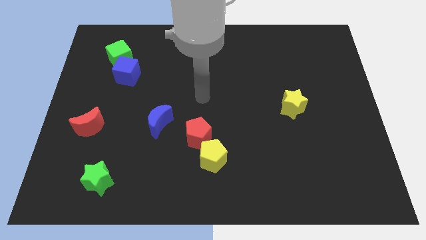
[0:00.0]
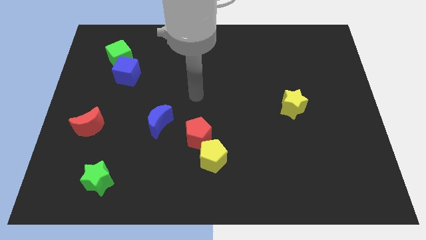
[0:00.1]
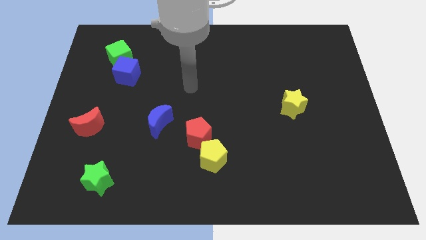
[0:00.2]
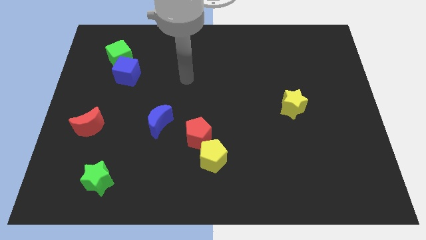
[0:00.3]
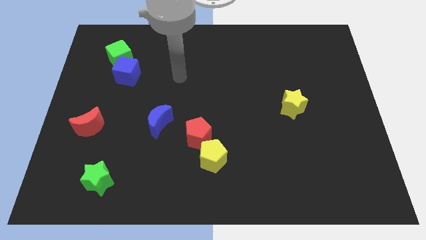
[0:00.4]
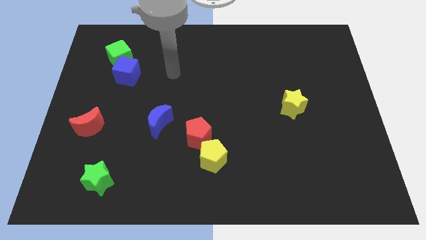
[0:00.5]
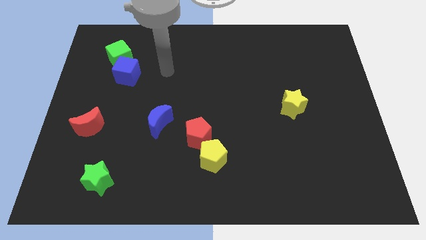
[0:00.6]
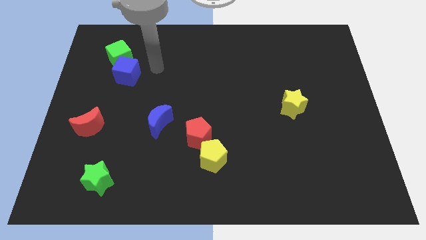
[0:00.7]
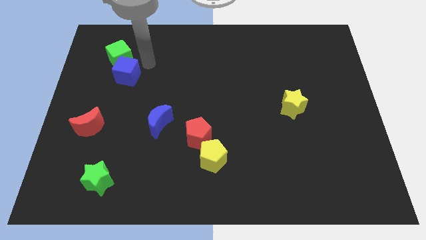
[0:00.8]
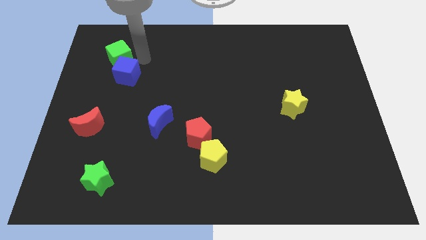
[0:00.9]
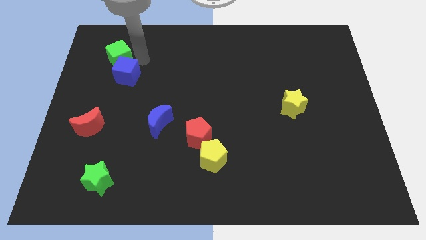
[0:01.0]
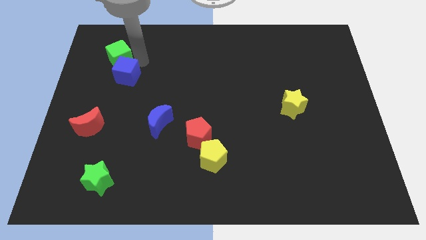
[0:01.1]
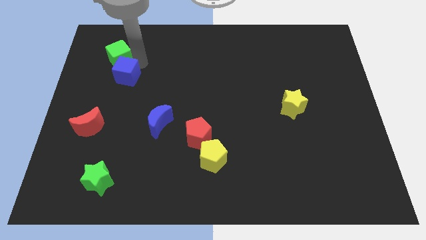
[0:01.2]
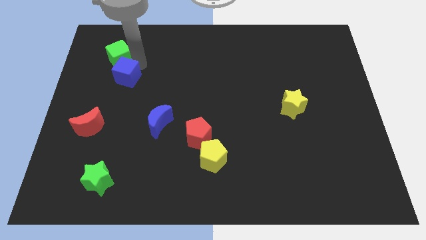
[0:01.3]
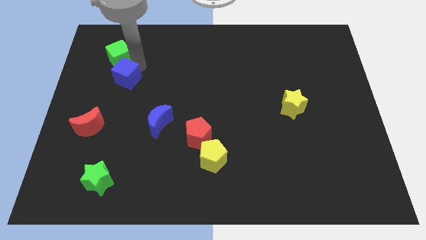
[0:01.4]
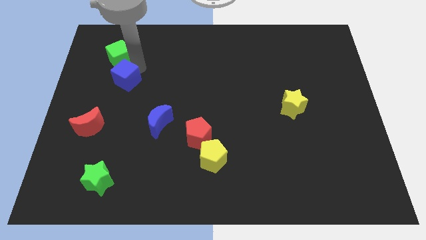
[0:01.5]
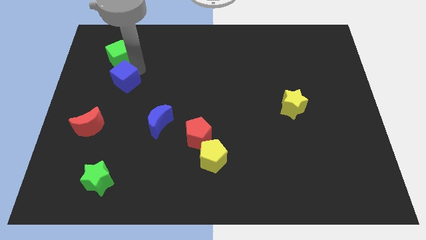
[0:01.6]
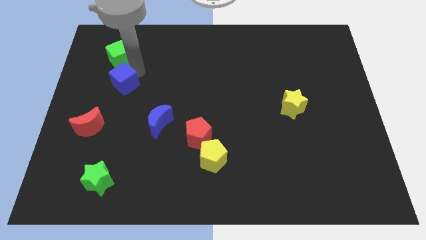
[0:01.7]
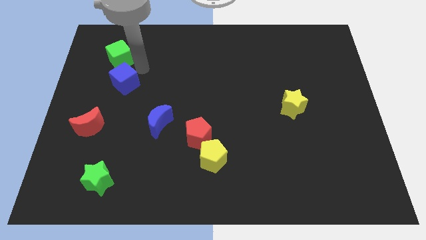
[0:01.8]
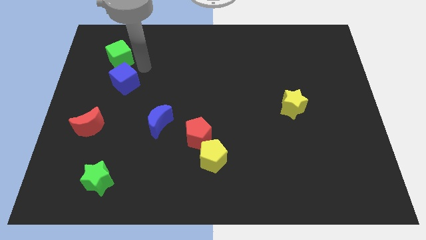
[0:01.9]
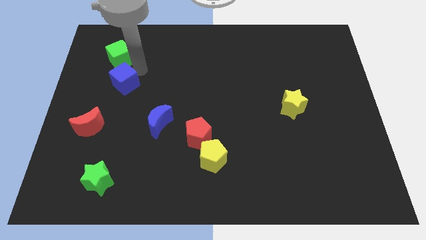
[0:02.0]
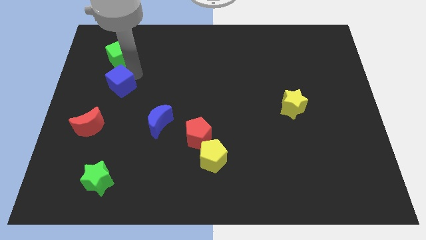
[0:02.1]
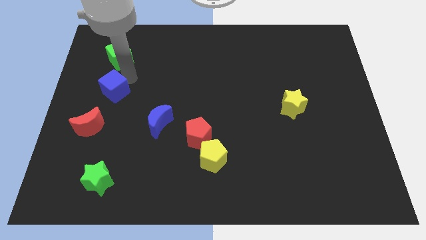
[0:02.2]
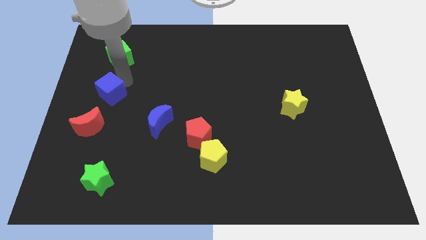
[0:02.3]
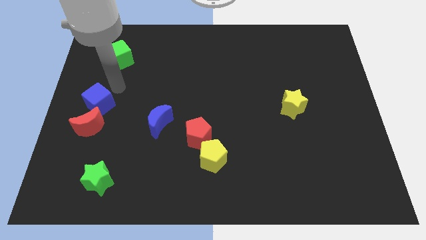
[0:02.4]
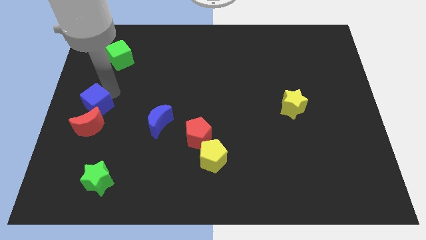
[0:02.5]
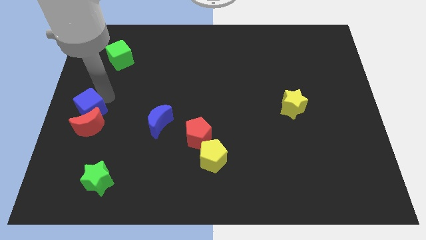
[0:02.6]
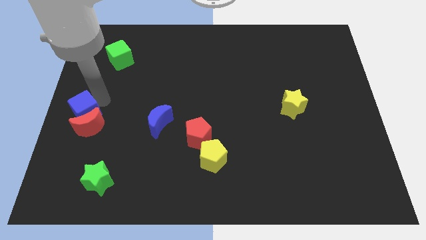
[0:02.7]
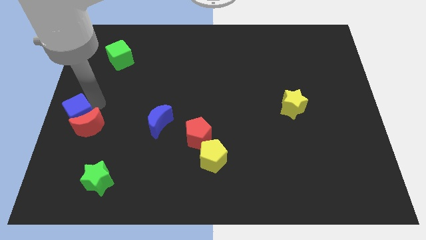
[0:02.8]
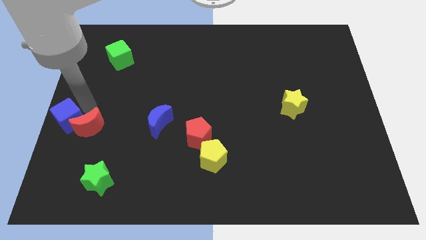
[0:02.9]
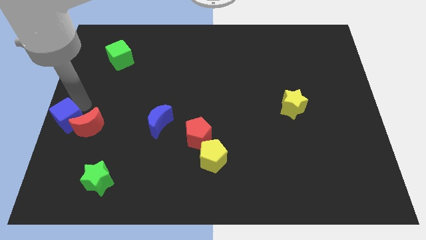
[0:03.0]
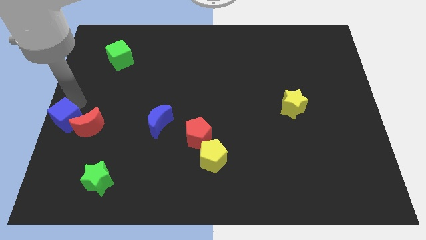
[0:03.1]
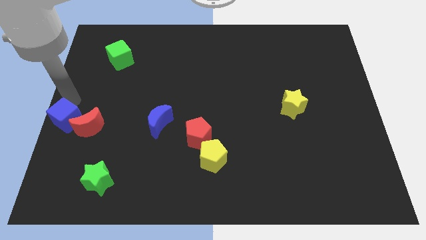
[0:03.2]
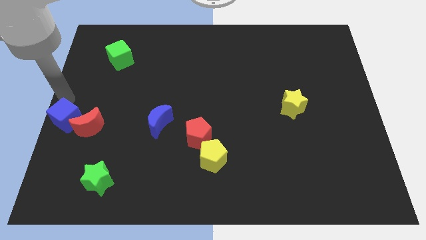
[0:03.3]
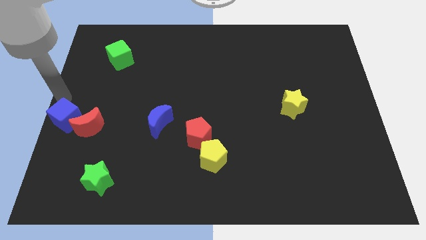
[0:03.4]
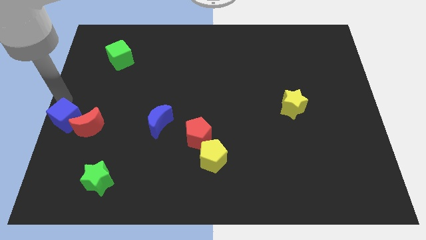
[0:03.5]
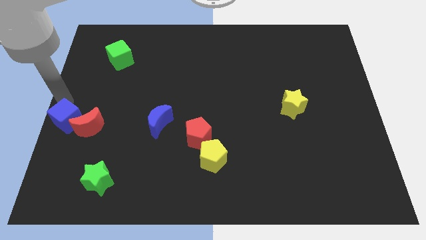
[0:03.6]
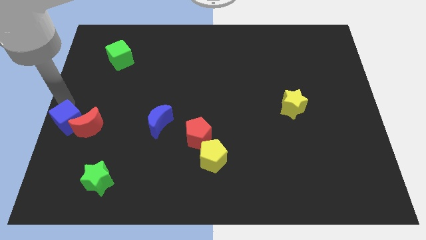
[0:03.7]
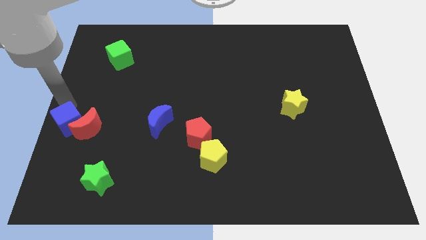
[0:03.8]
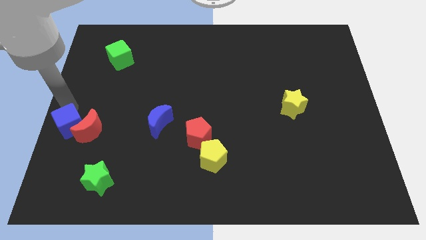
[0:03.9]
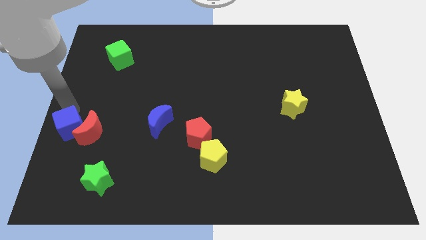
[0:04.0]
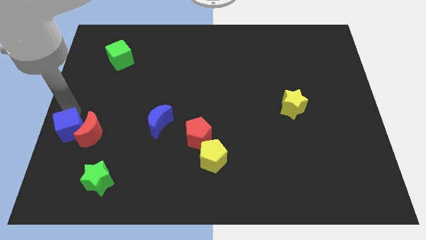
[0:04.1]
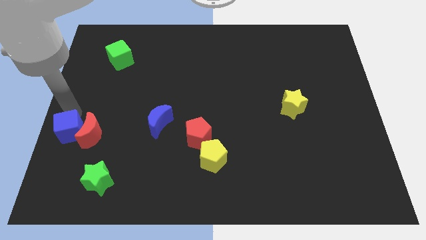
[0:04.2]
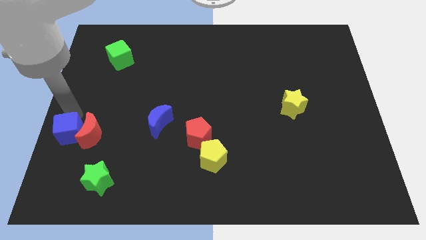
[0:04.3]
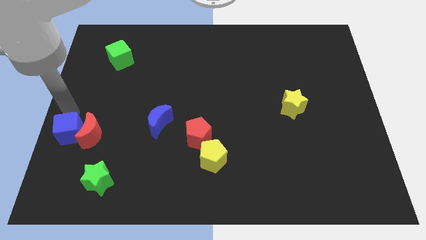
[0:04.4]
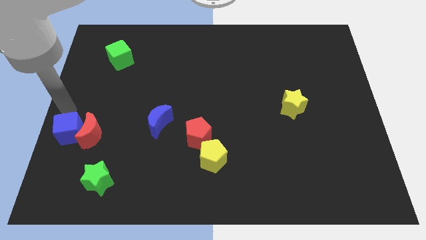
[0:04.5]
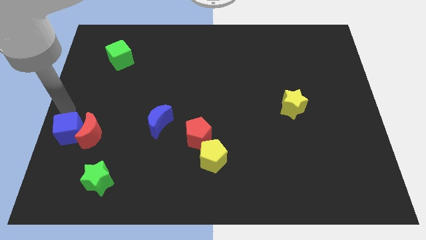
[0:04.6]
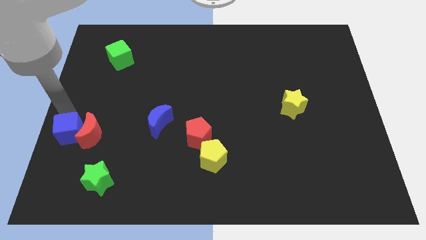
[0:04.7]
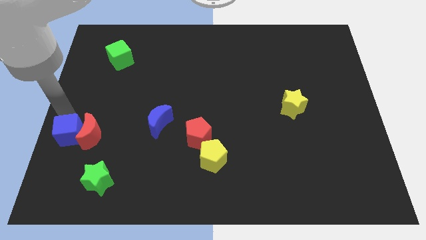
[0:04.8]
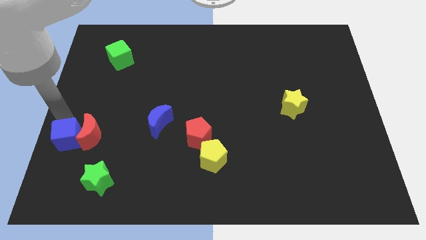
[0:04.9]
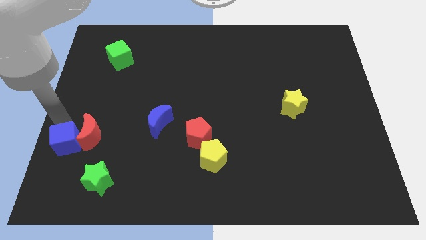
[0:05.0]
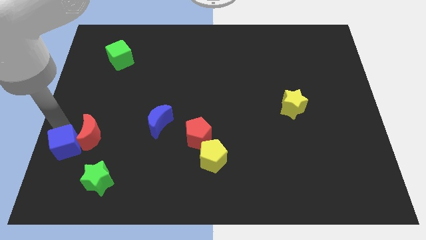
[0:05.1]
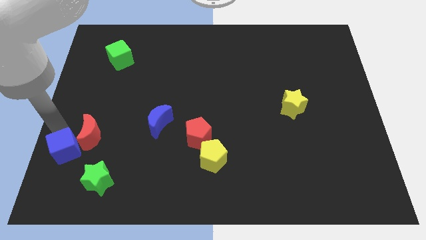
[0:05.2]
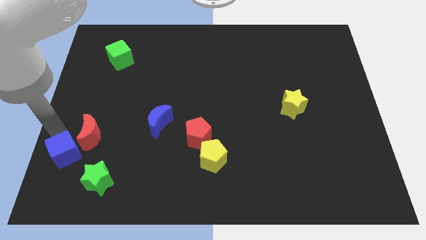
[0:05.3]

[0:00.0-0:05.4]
move the blue cube below the red moon

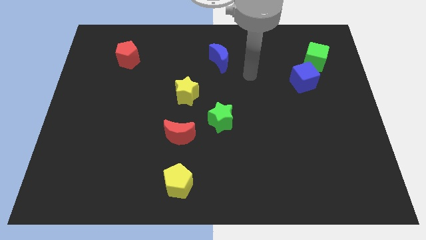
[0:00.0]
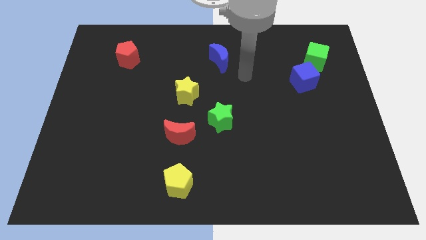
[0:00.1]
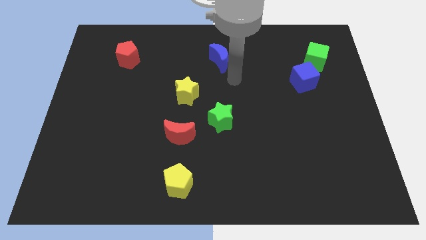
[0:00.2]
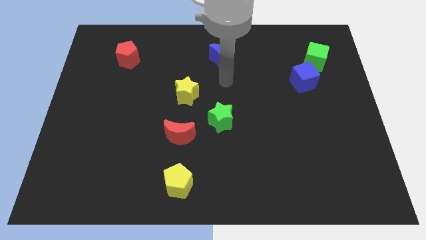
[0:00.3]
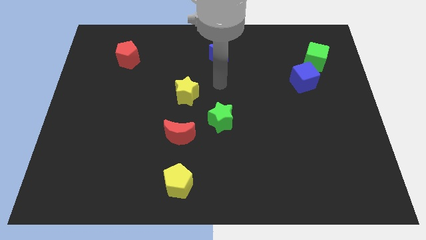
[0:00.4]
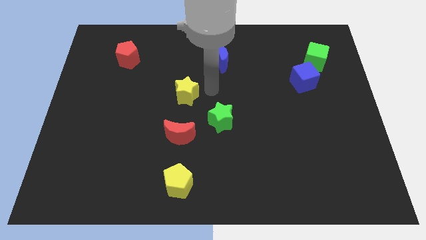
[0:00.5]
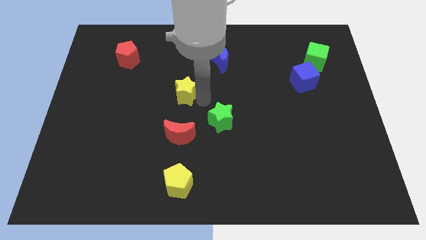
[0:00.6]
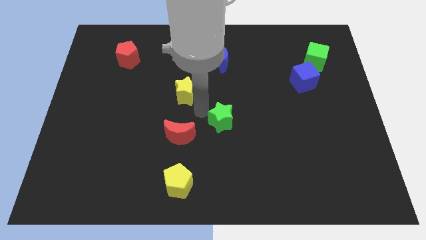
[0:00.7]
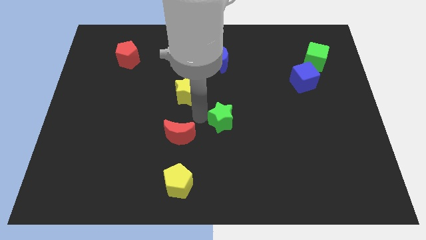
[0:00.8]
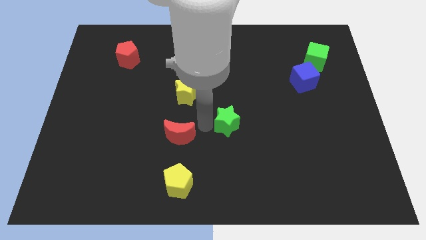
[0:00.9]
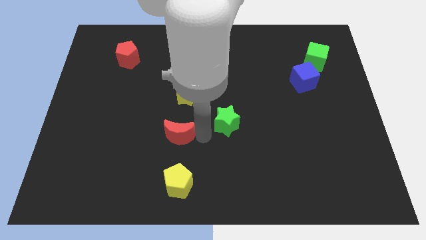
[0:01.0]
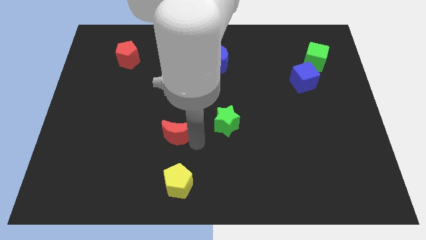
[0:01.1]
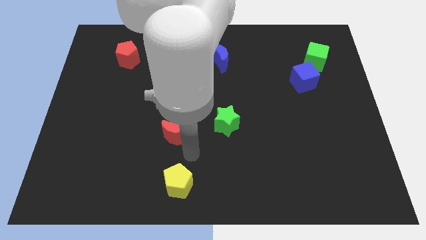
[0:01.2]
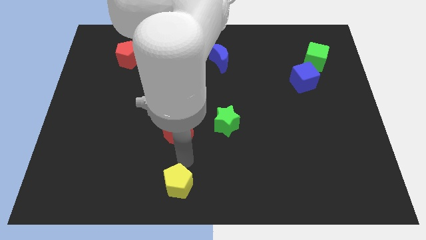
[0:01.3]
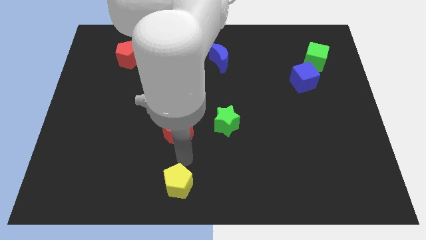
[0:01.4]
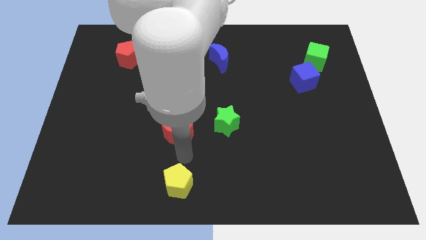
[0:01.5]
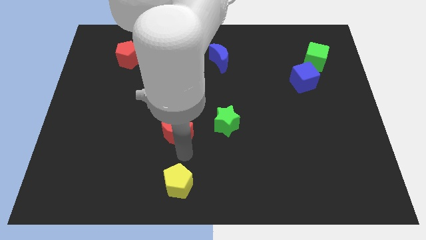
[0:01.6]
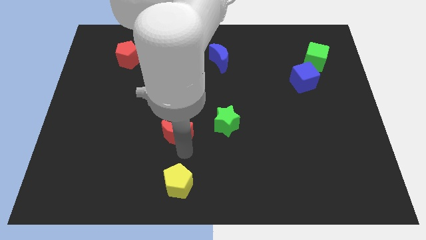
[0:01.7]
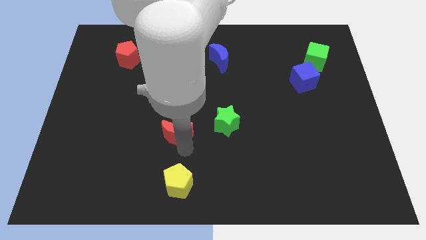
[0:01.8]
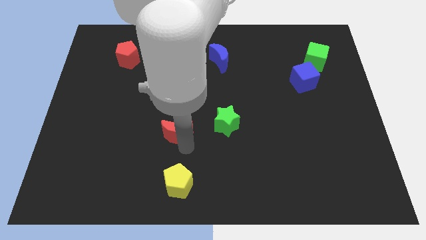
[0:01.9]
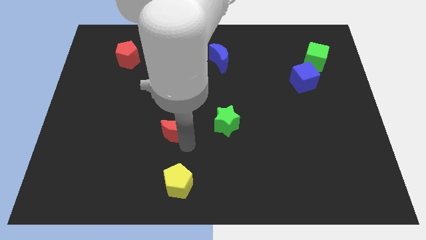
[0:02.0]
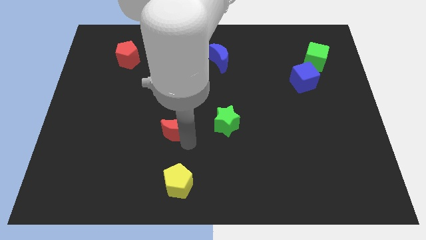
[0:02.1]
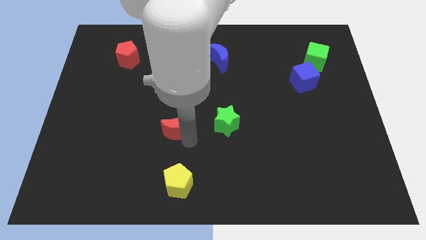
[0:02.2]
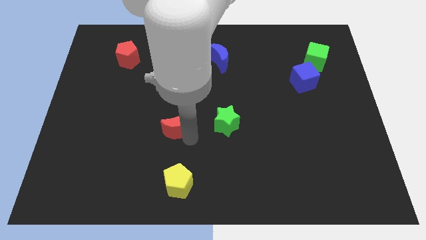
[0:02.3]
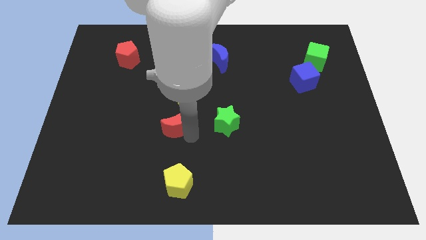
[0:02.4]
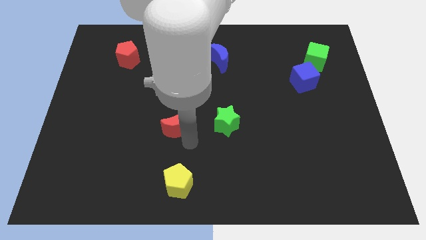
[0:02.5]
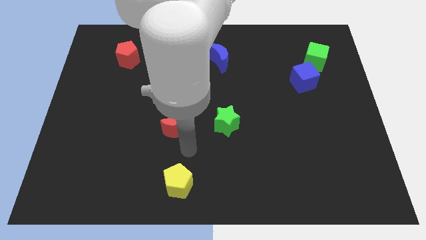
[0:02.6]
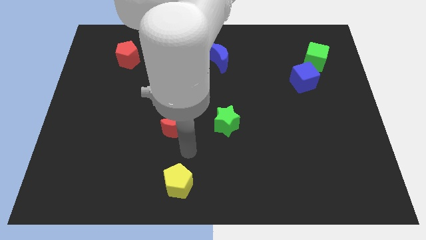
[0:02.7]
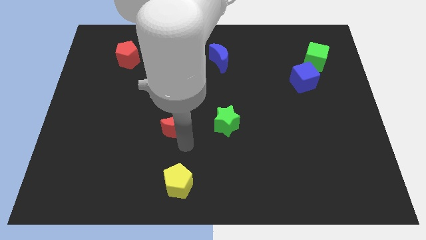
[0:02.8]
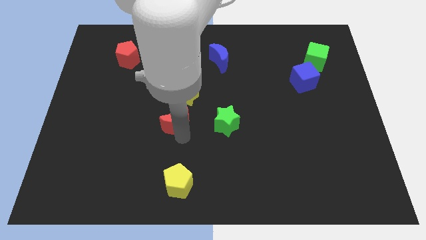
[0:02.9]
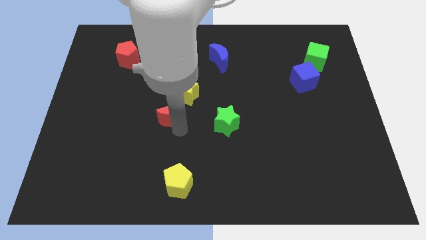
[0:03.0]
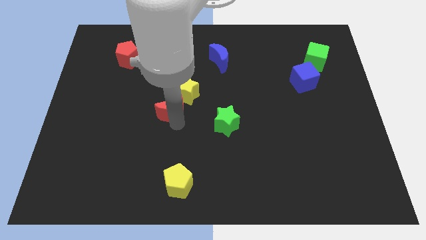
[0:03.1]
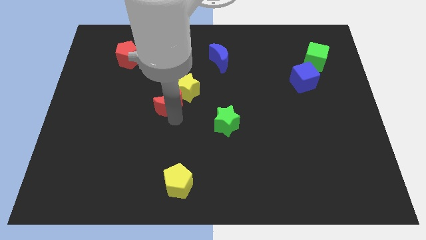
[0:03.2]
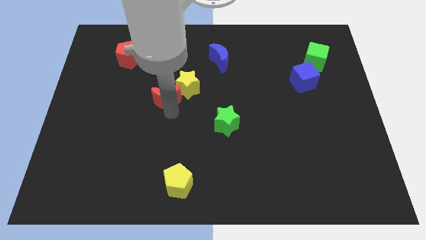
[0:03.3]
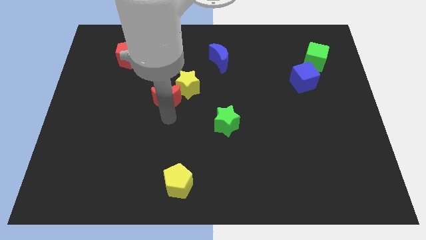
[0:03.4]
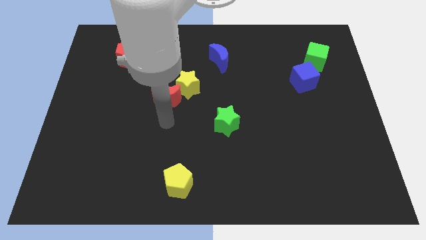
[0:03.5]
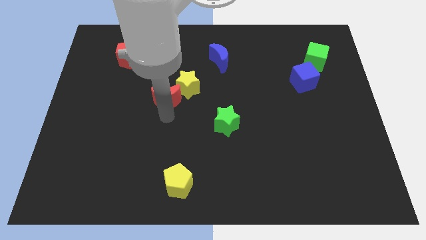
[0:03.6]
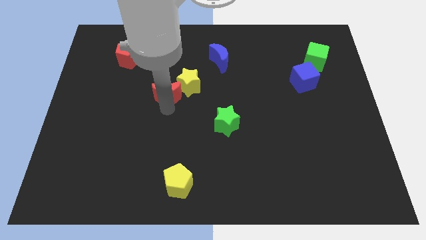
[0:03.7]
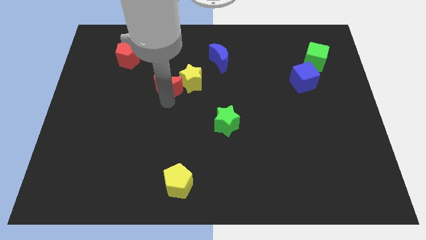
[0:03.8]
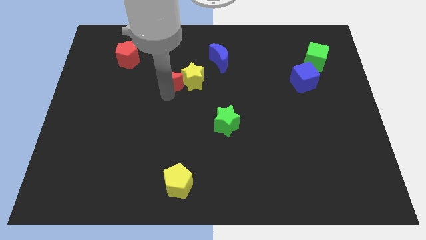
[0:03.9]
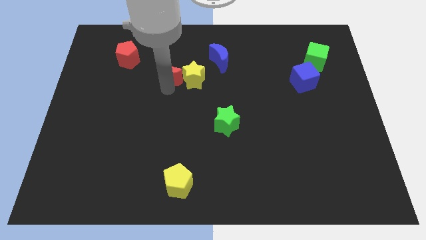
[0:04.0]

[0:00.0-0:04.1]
push the red moon diagonally up and to the left of the yellow star
